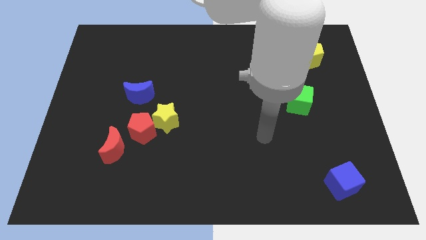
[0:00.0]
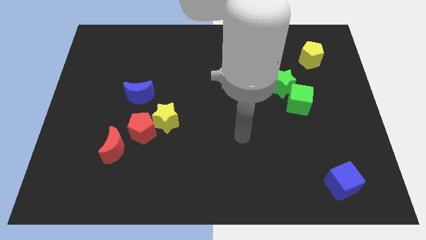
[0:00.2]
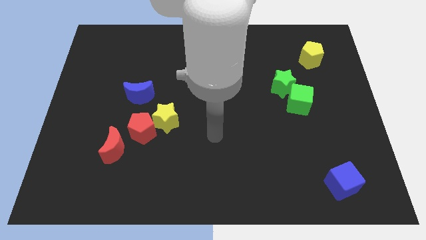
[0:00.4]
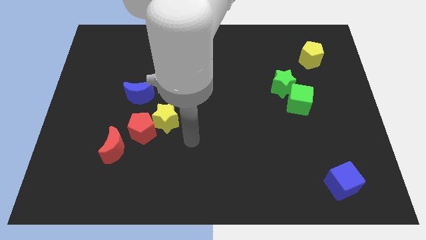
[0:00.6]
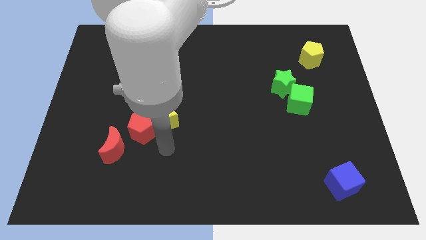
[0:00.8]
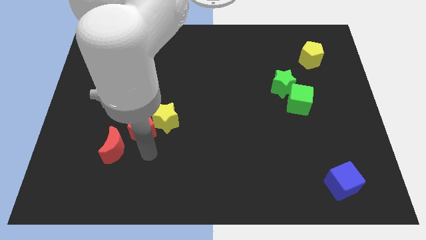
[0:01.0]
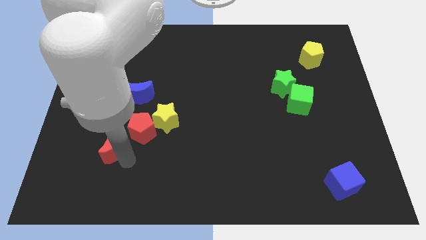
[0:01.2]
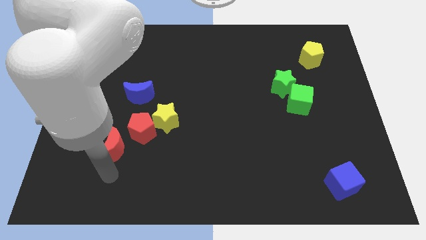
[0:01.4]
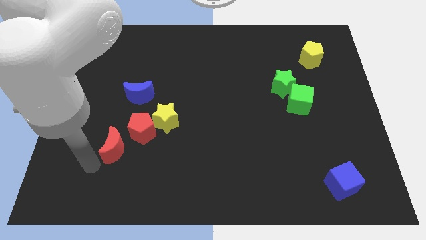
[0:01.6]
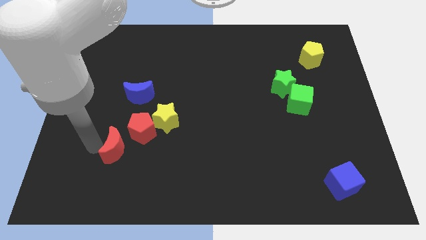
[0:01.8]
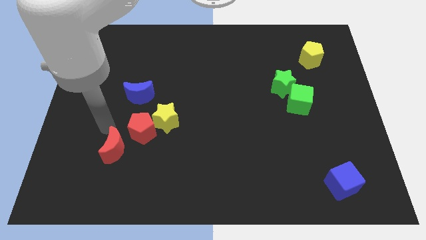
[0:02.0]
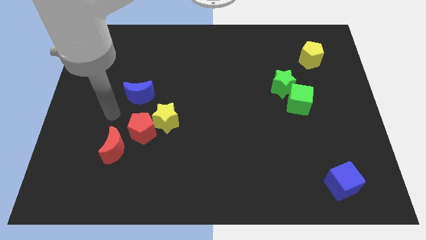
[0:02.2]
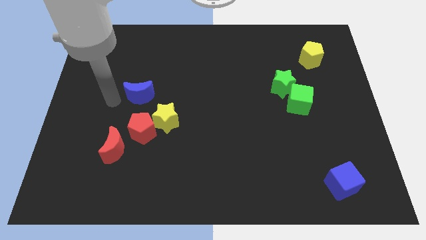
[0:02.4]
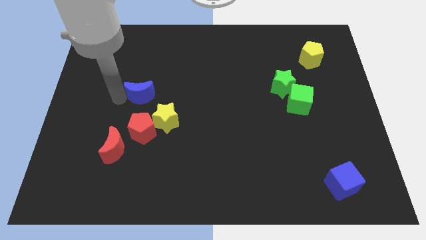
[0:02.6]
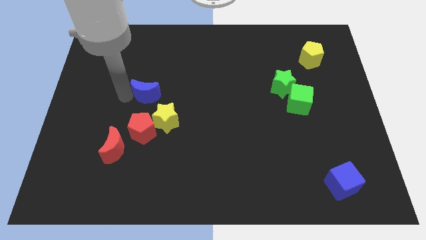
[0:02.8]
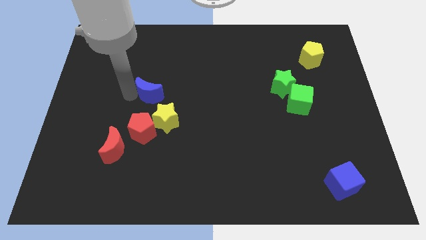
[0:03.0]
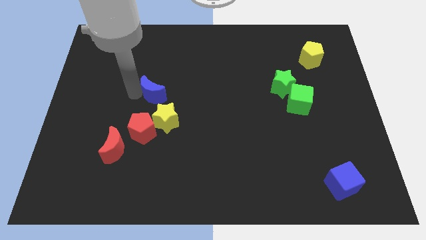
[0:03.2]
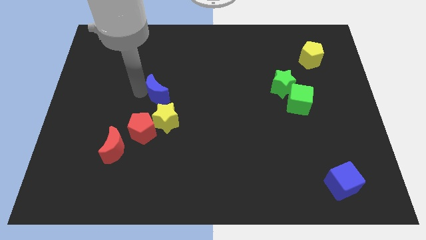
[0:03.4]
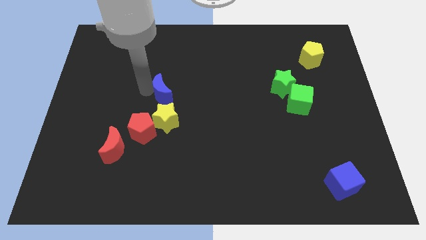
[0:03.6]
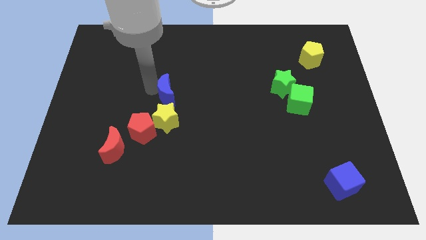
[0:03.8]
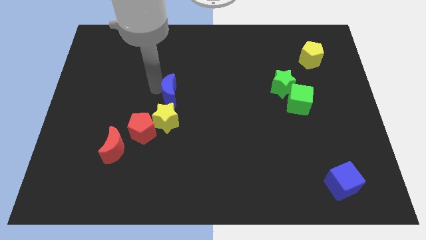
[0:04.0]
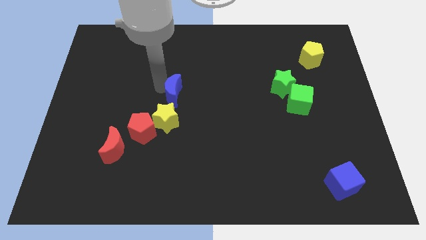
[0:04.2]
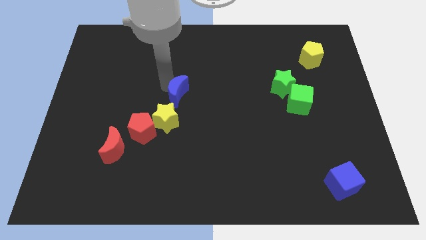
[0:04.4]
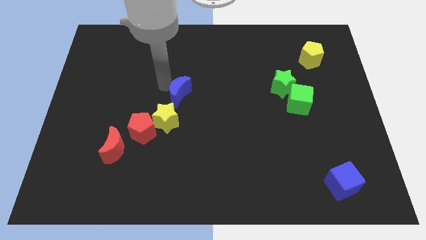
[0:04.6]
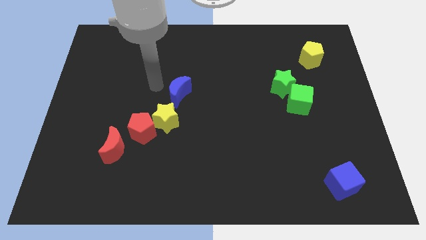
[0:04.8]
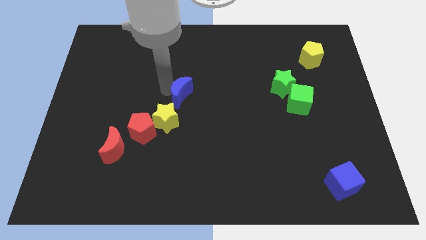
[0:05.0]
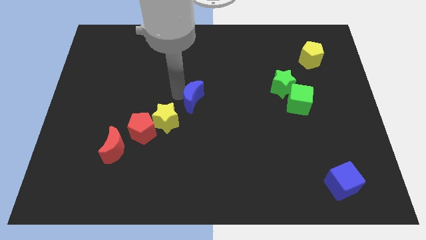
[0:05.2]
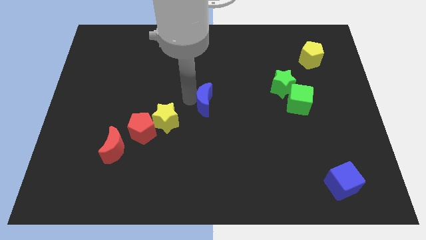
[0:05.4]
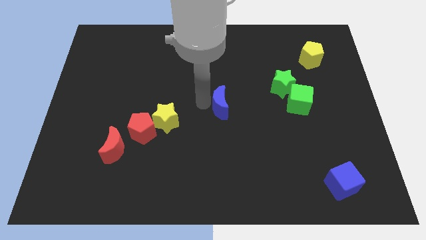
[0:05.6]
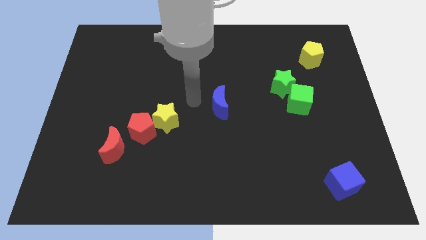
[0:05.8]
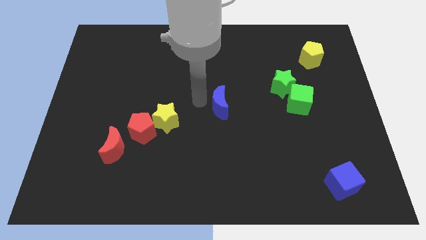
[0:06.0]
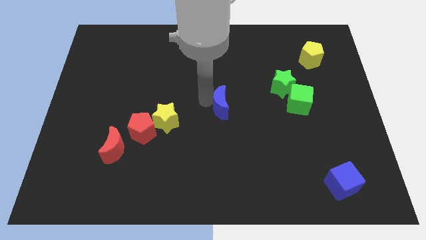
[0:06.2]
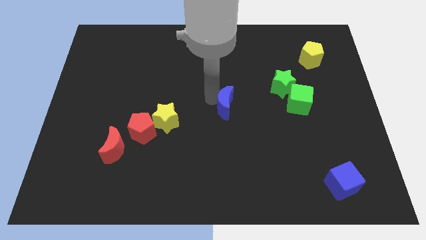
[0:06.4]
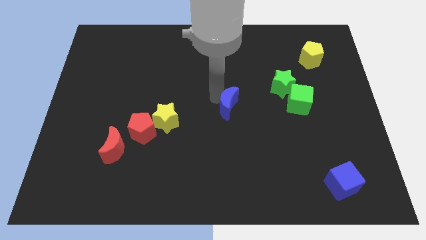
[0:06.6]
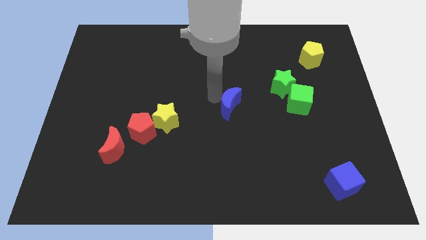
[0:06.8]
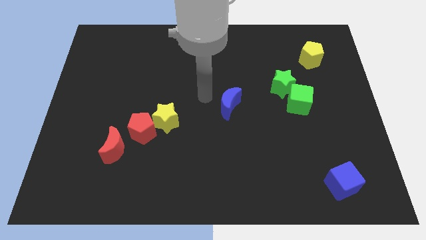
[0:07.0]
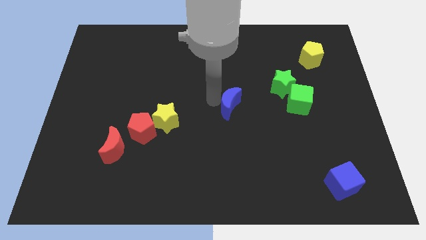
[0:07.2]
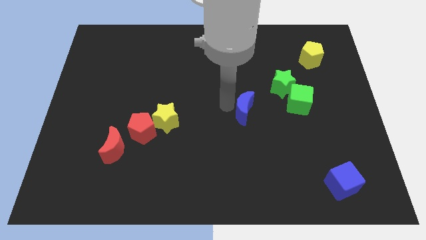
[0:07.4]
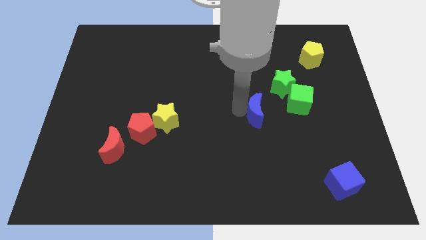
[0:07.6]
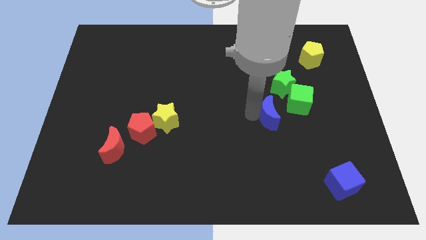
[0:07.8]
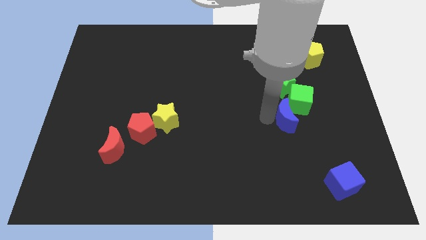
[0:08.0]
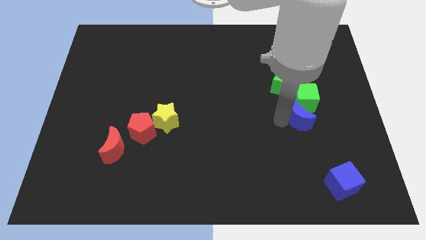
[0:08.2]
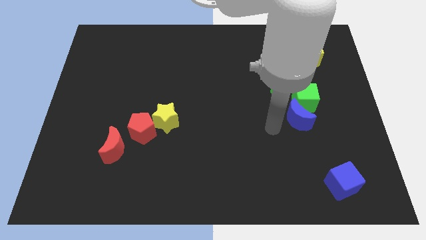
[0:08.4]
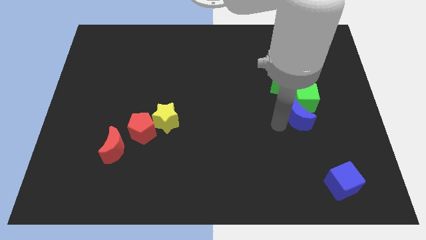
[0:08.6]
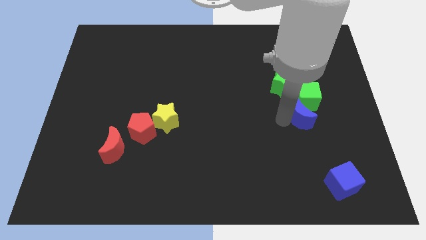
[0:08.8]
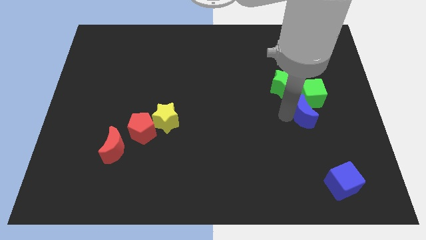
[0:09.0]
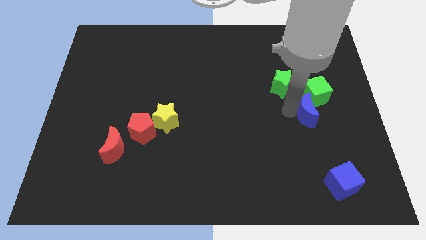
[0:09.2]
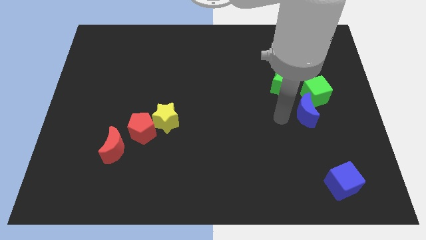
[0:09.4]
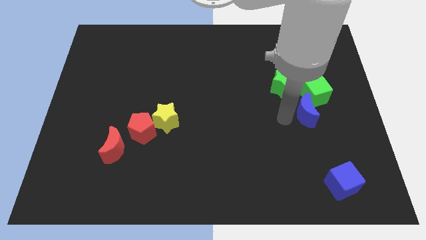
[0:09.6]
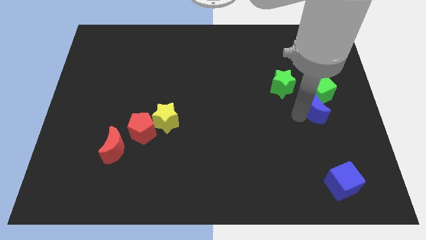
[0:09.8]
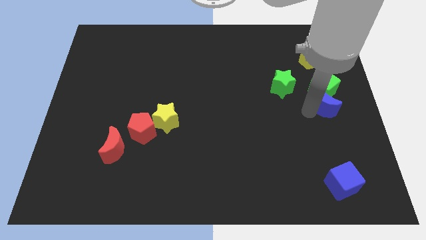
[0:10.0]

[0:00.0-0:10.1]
move the blue moon to the center right

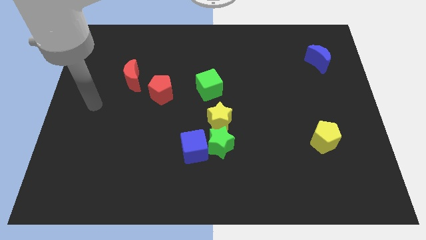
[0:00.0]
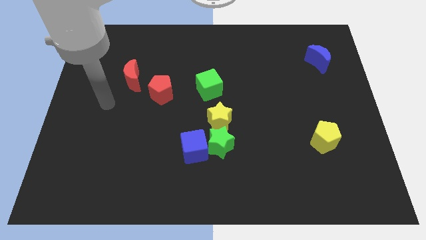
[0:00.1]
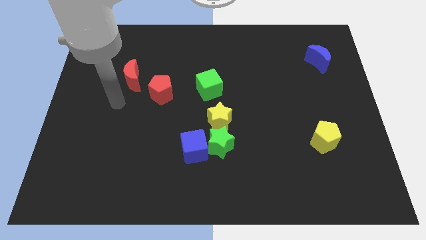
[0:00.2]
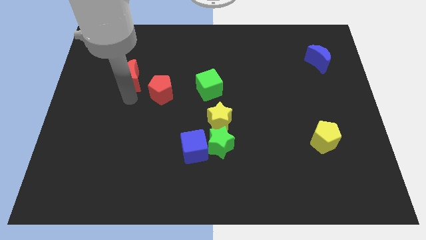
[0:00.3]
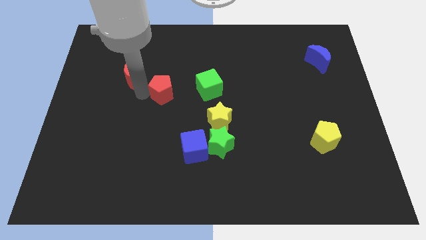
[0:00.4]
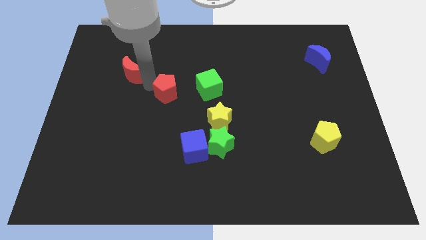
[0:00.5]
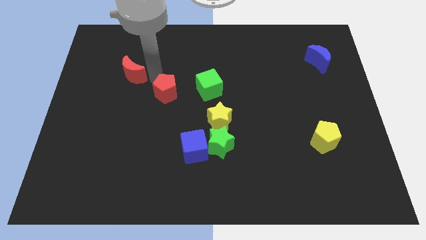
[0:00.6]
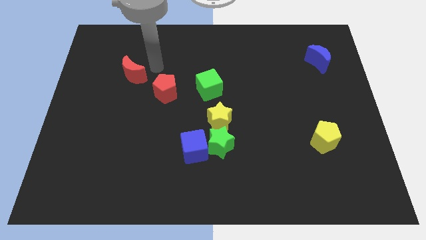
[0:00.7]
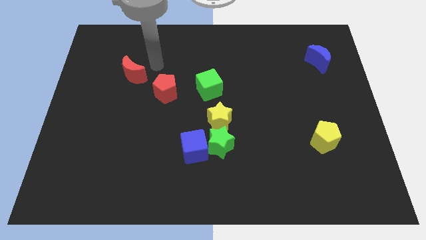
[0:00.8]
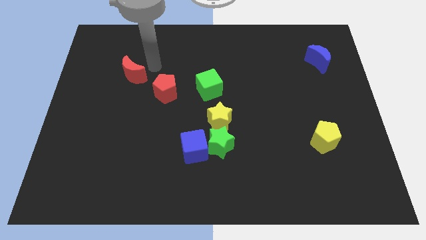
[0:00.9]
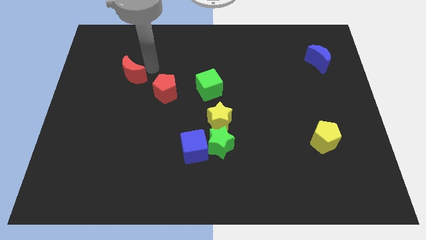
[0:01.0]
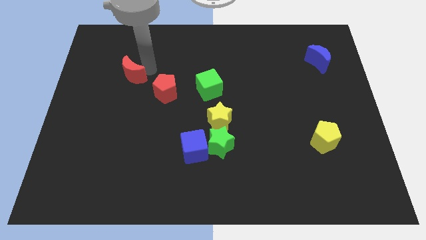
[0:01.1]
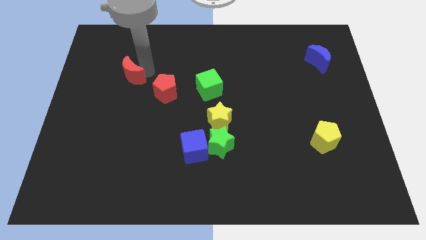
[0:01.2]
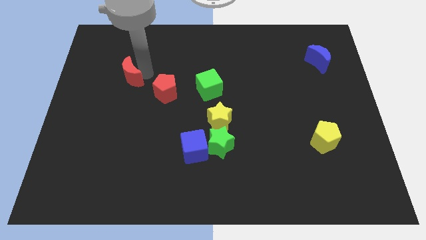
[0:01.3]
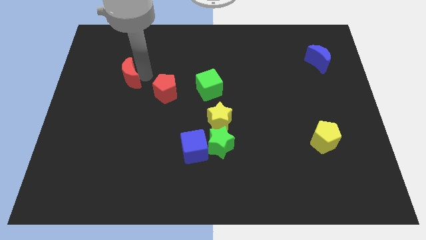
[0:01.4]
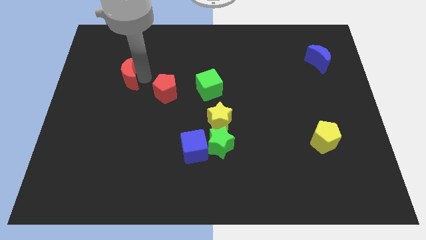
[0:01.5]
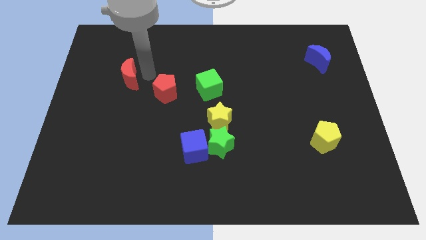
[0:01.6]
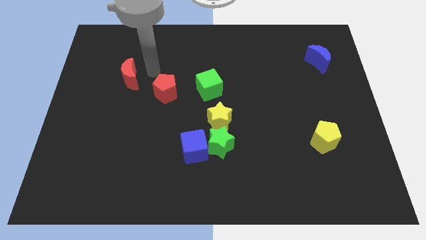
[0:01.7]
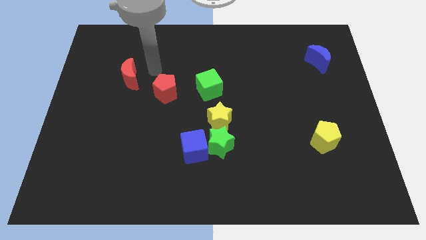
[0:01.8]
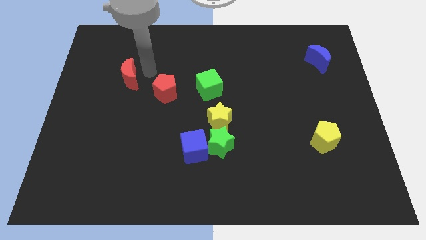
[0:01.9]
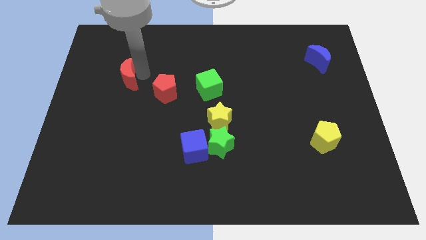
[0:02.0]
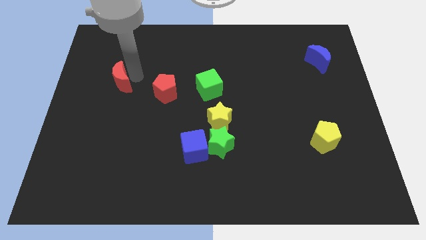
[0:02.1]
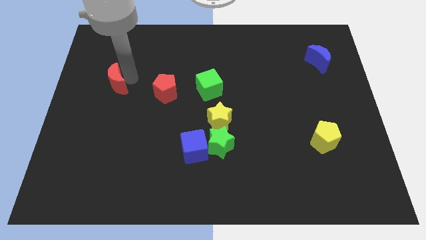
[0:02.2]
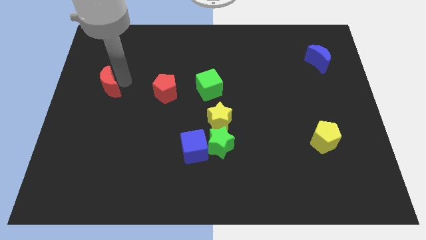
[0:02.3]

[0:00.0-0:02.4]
push the red moon to the center left
